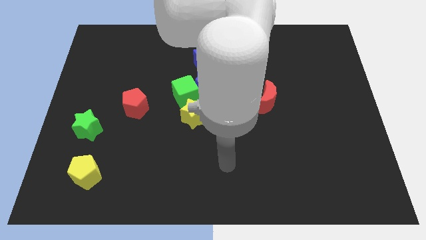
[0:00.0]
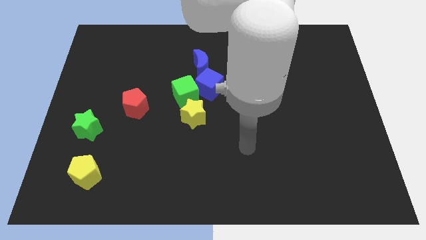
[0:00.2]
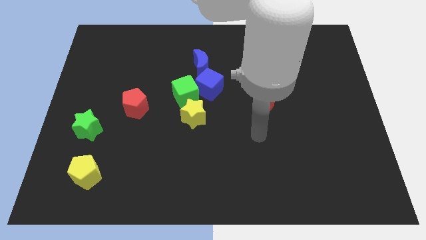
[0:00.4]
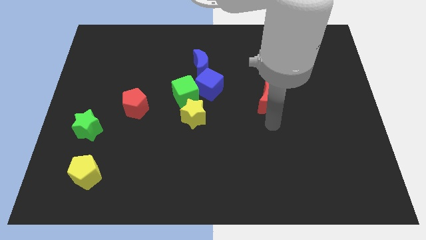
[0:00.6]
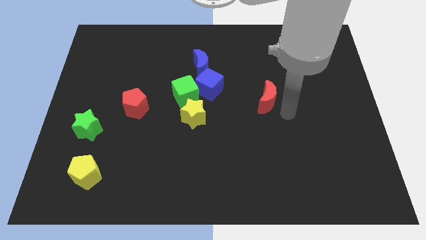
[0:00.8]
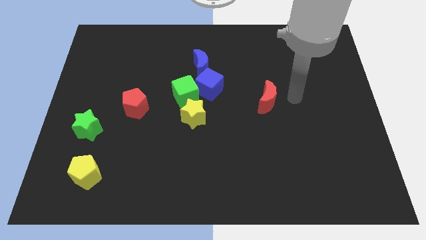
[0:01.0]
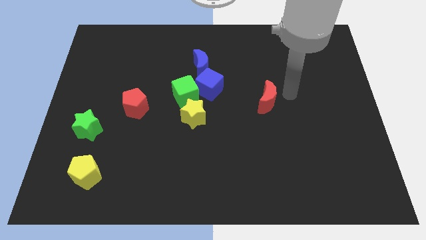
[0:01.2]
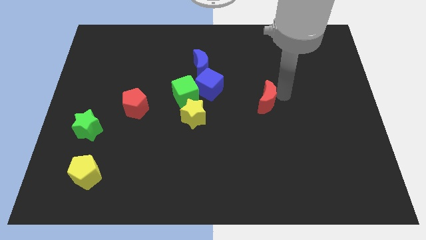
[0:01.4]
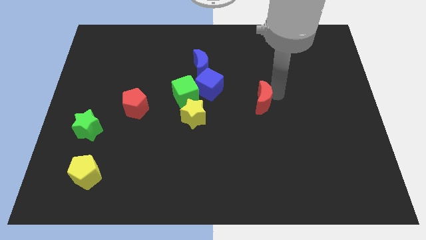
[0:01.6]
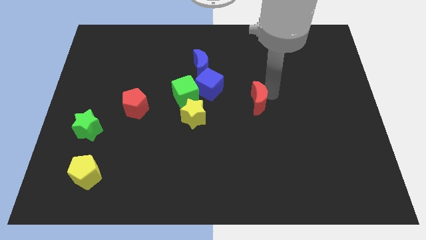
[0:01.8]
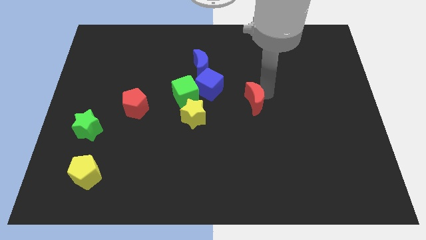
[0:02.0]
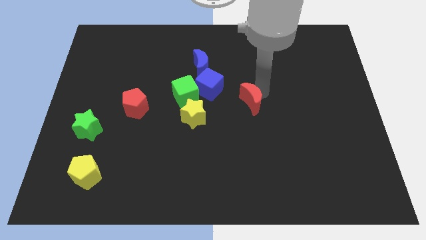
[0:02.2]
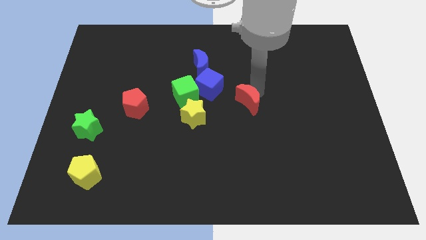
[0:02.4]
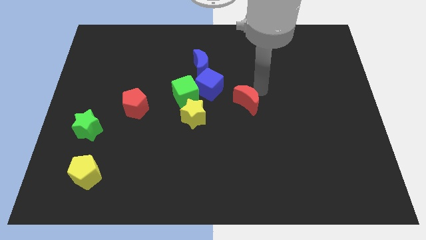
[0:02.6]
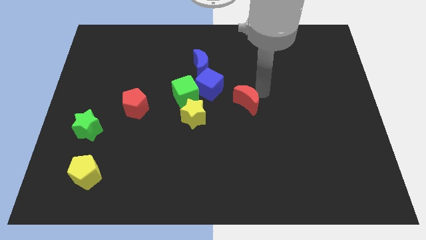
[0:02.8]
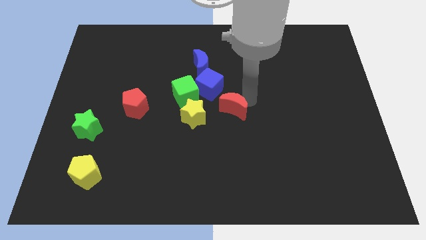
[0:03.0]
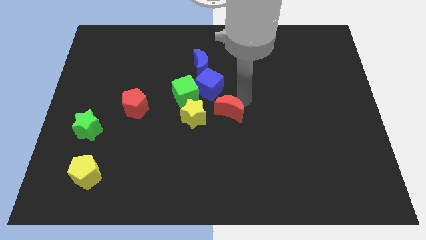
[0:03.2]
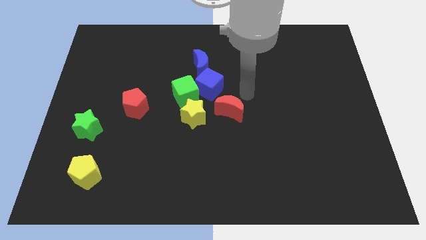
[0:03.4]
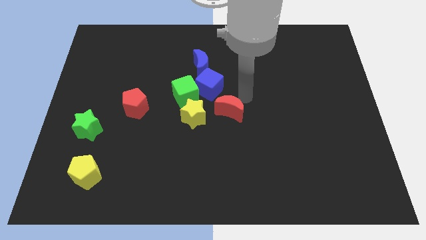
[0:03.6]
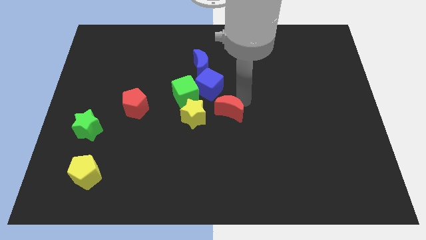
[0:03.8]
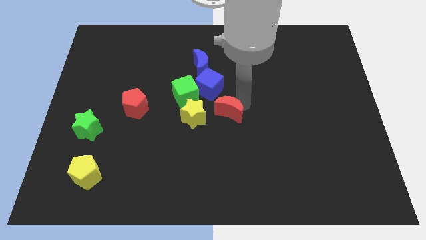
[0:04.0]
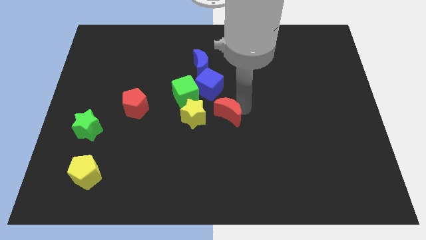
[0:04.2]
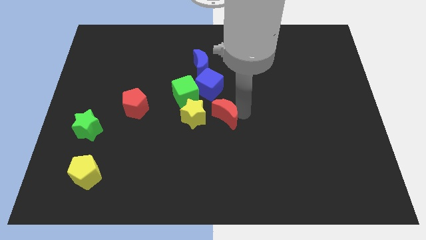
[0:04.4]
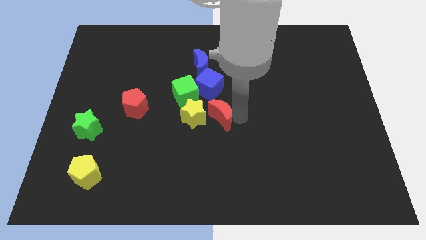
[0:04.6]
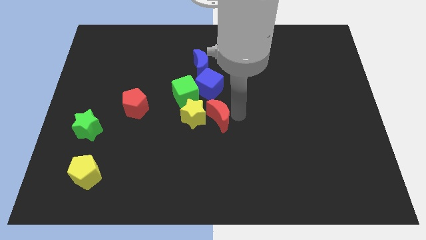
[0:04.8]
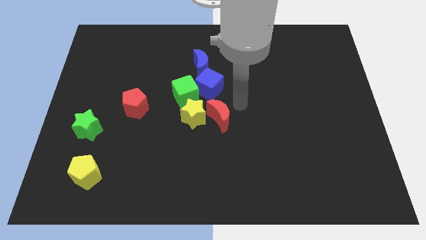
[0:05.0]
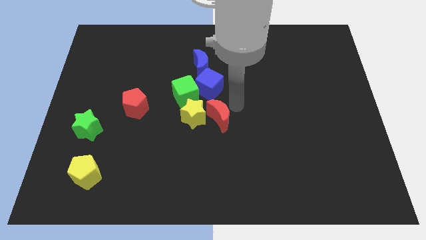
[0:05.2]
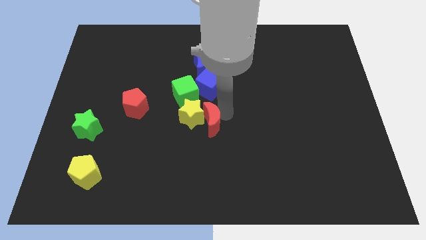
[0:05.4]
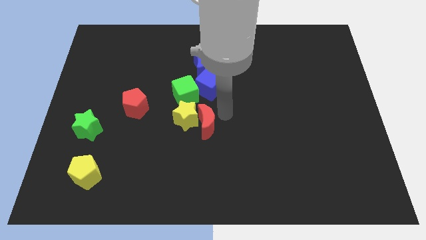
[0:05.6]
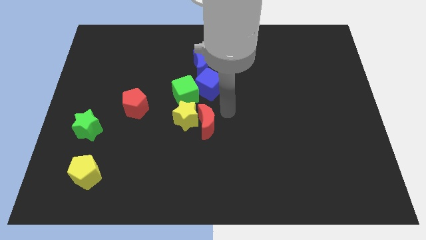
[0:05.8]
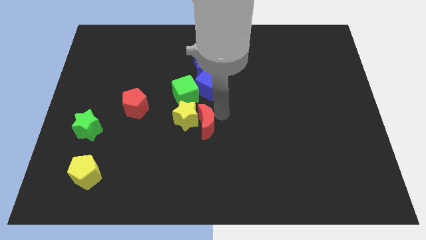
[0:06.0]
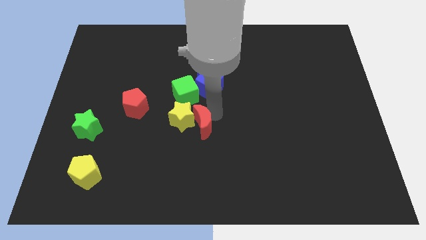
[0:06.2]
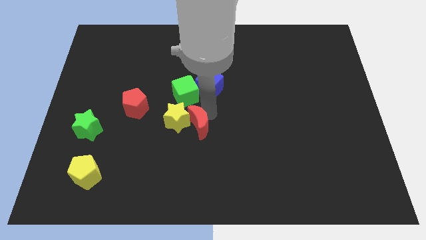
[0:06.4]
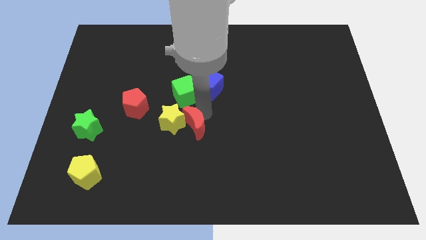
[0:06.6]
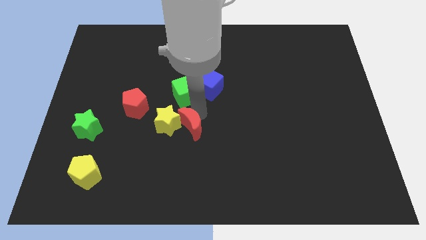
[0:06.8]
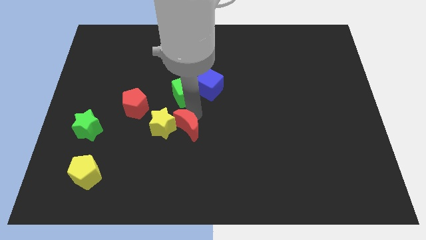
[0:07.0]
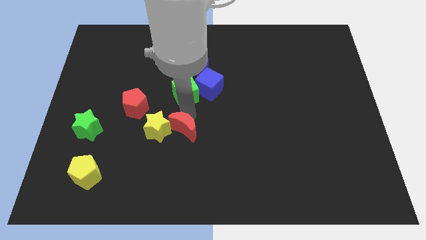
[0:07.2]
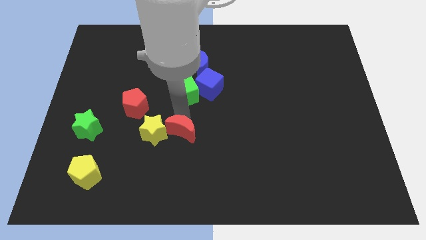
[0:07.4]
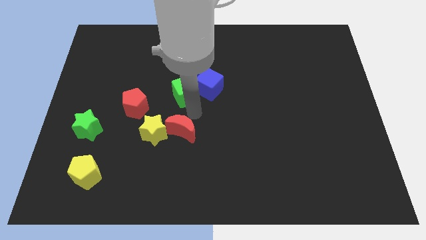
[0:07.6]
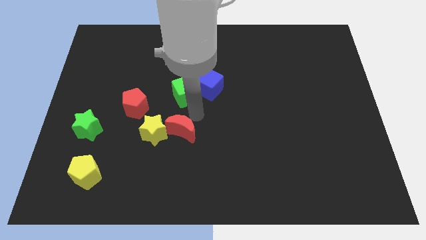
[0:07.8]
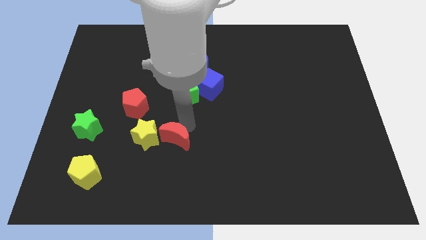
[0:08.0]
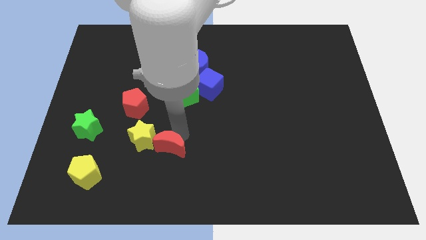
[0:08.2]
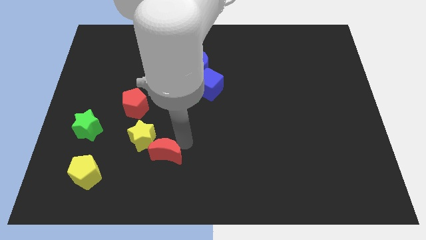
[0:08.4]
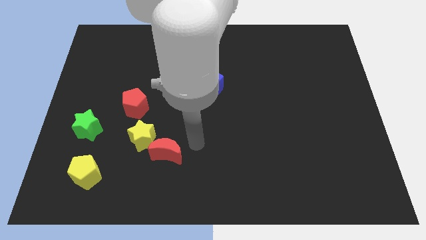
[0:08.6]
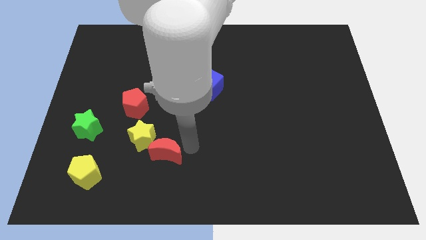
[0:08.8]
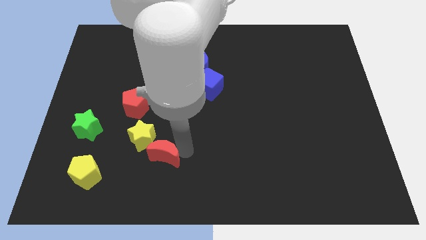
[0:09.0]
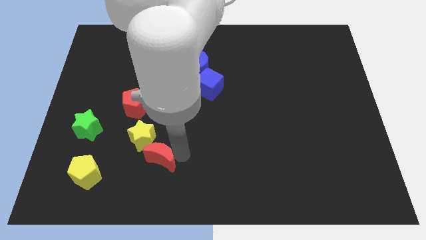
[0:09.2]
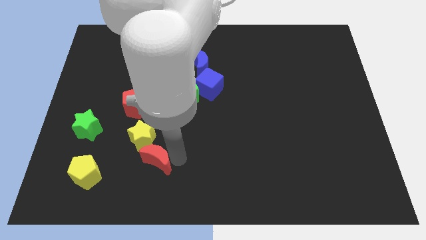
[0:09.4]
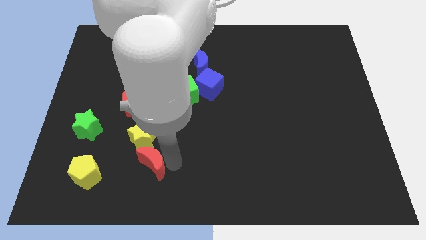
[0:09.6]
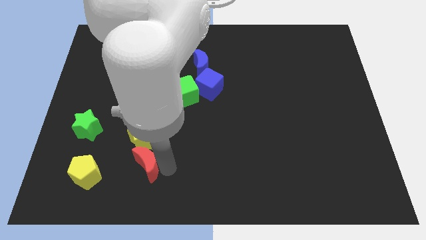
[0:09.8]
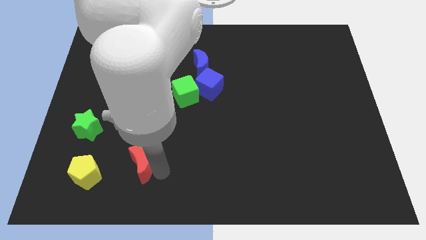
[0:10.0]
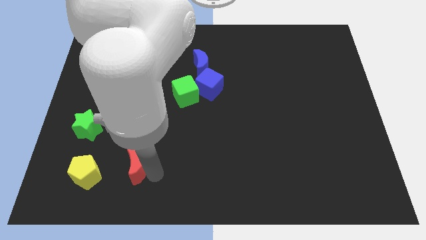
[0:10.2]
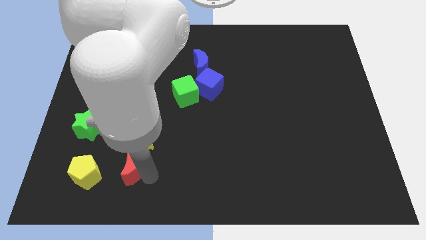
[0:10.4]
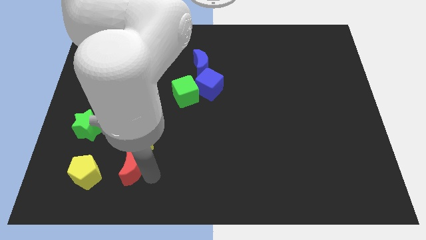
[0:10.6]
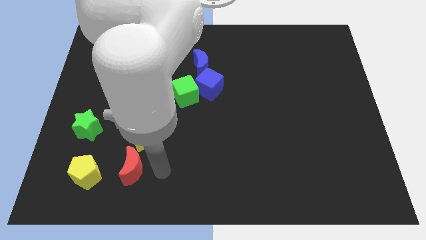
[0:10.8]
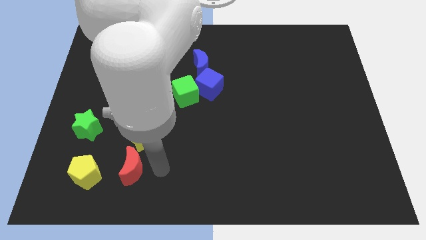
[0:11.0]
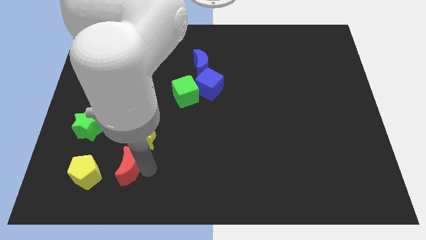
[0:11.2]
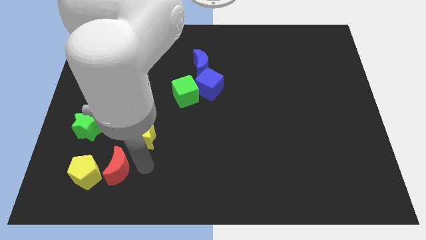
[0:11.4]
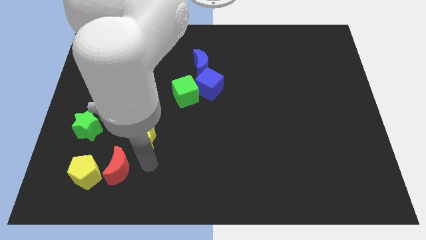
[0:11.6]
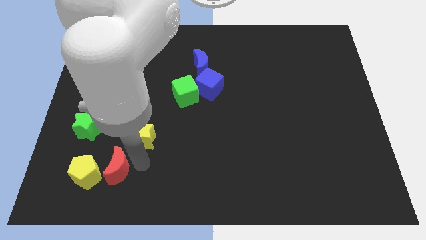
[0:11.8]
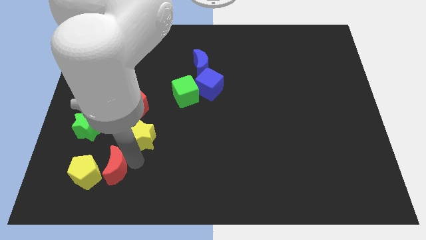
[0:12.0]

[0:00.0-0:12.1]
push the red moon towards the yellow pentagon

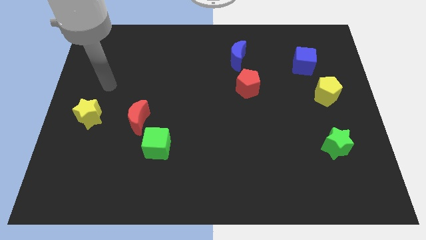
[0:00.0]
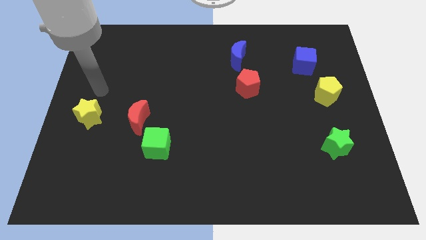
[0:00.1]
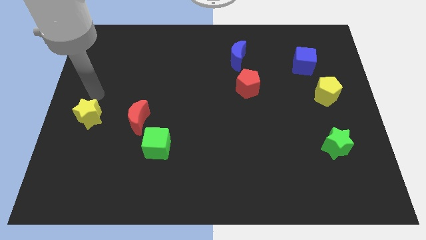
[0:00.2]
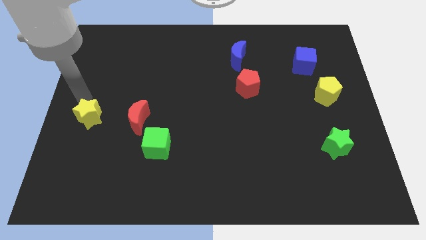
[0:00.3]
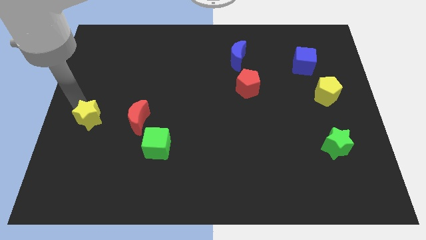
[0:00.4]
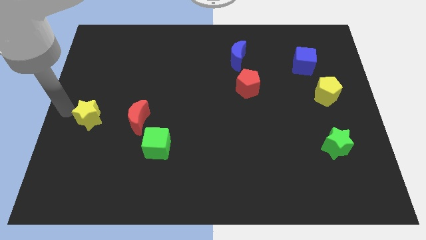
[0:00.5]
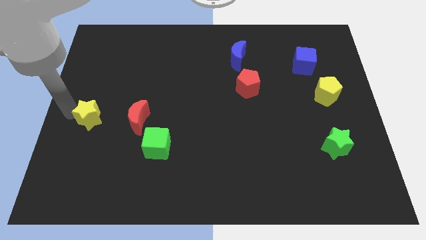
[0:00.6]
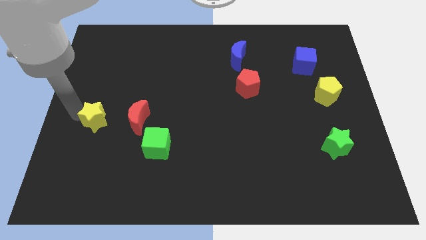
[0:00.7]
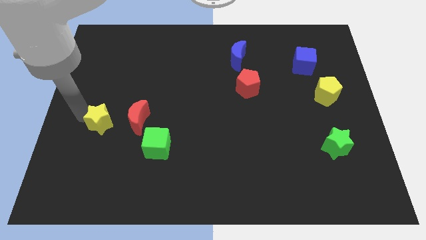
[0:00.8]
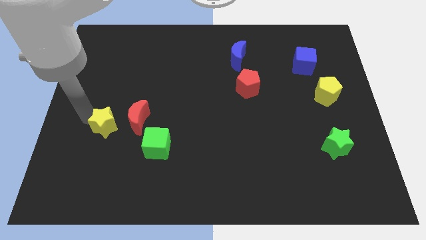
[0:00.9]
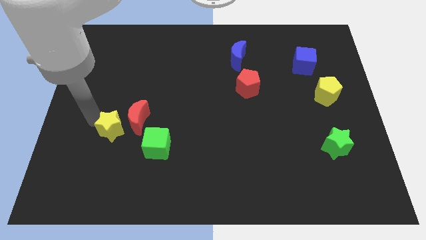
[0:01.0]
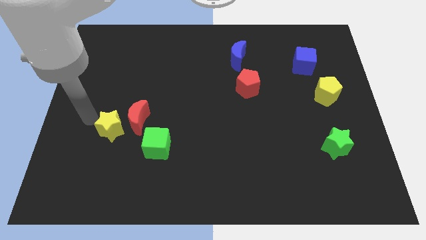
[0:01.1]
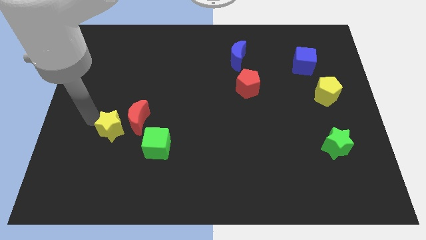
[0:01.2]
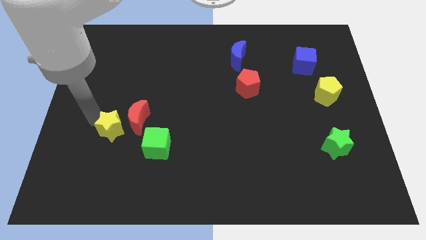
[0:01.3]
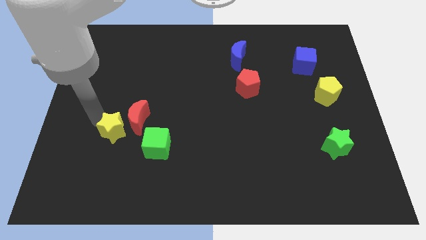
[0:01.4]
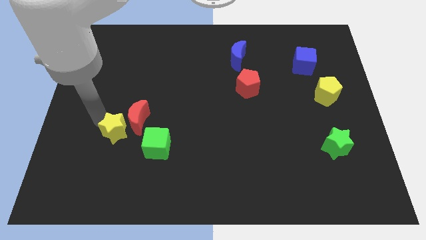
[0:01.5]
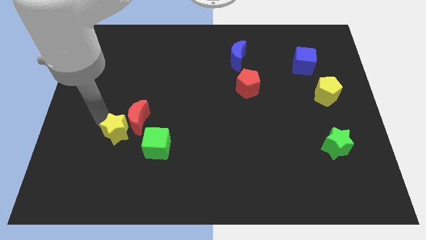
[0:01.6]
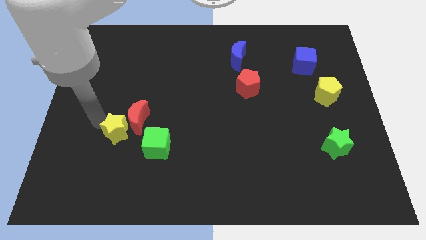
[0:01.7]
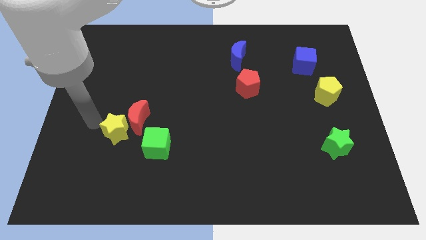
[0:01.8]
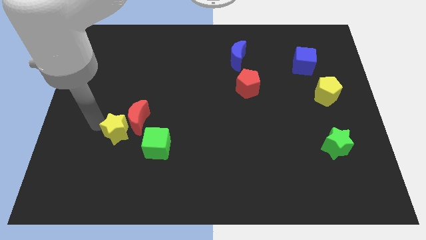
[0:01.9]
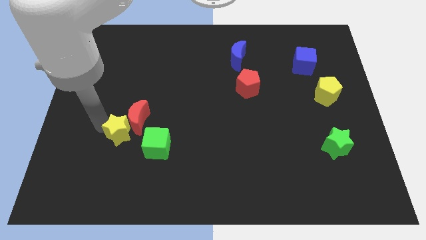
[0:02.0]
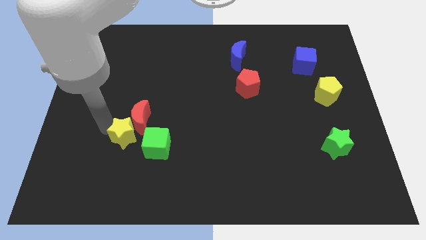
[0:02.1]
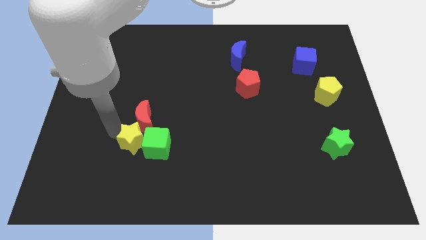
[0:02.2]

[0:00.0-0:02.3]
push the yellow star close to the green cube
